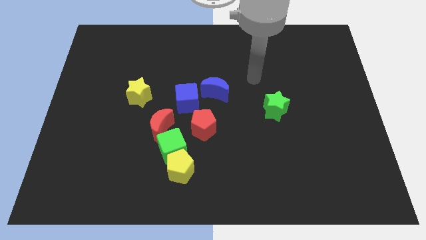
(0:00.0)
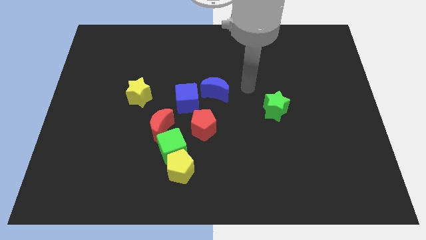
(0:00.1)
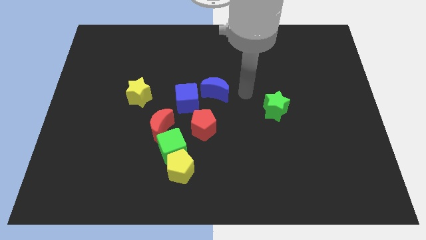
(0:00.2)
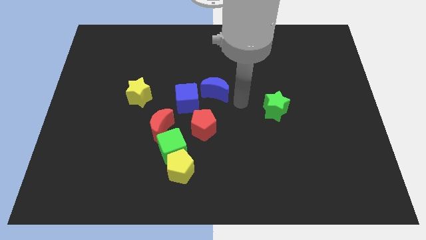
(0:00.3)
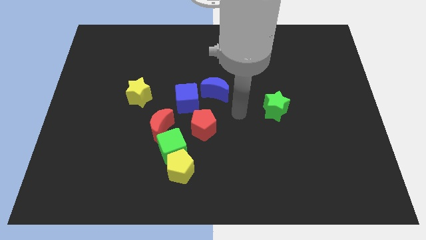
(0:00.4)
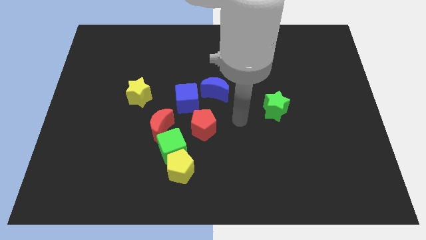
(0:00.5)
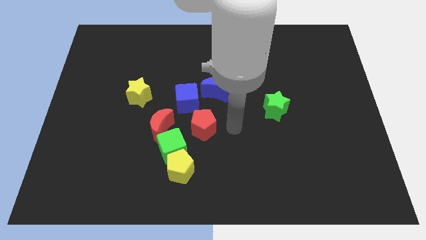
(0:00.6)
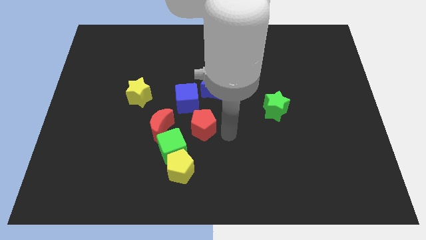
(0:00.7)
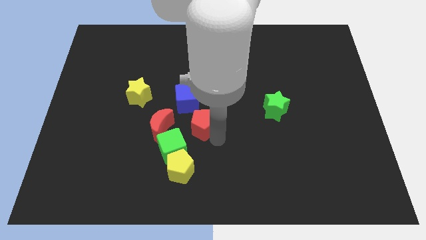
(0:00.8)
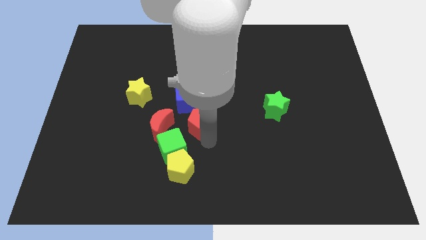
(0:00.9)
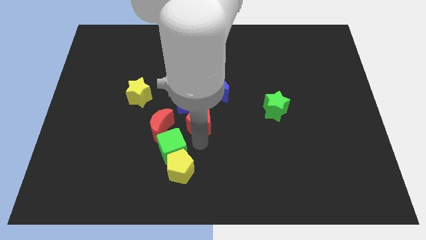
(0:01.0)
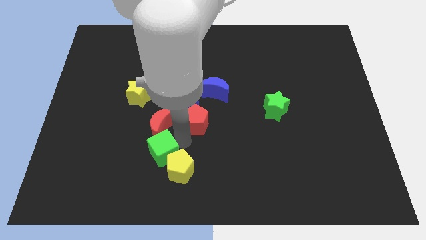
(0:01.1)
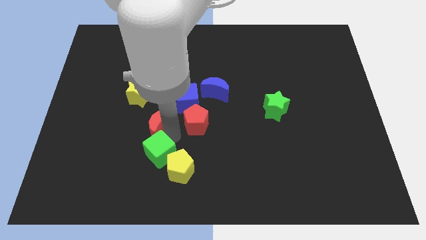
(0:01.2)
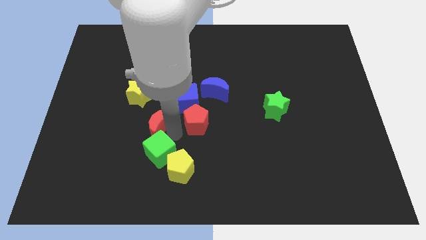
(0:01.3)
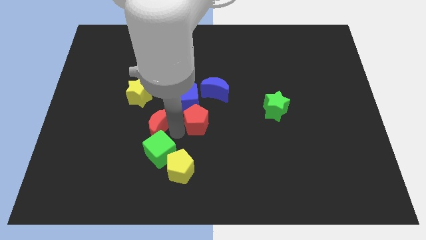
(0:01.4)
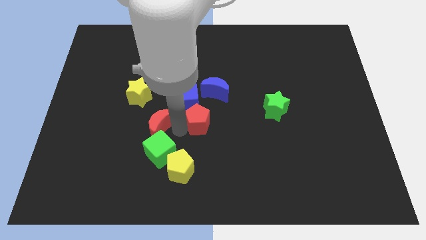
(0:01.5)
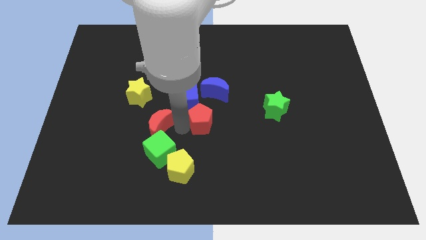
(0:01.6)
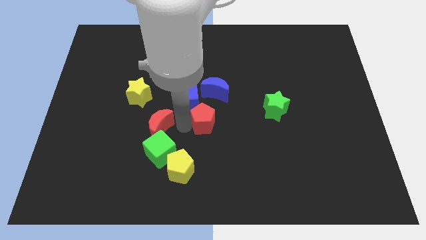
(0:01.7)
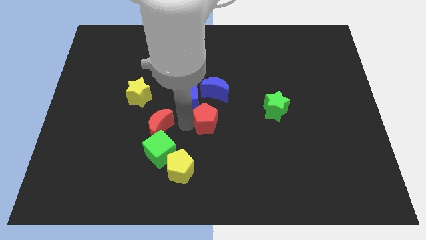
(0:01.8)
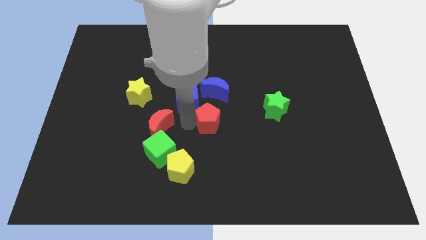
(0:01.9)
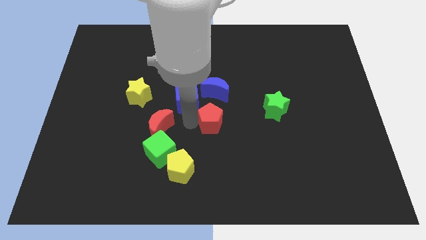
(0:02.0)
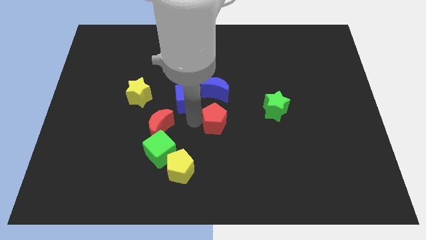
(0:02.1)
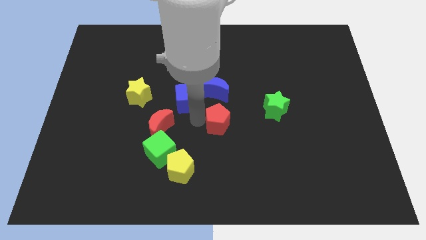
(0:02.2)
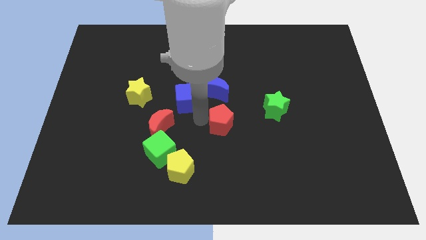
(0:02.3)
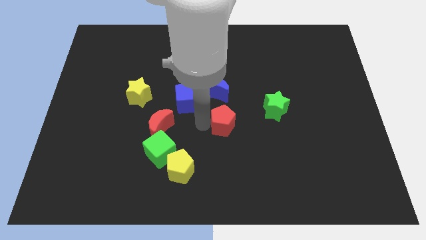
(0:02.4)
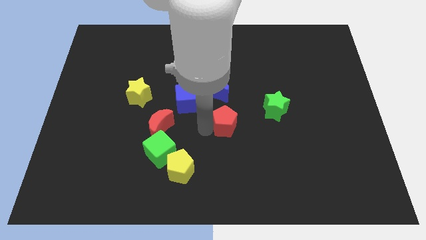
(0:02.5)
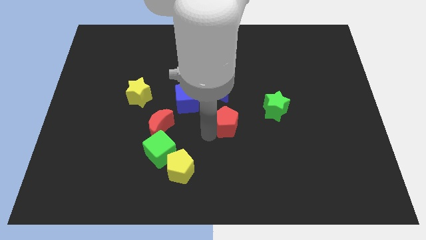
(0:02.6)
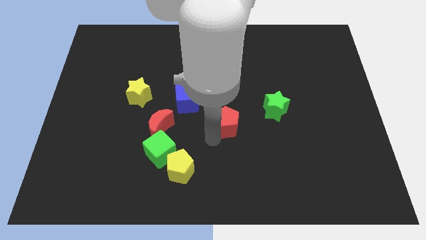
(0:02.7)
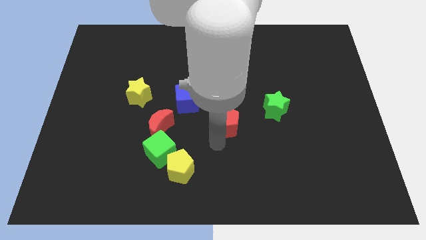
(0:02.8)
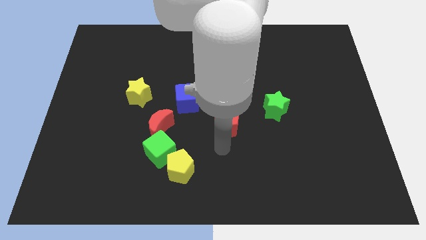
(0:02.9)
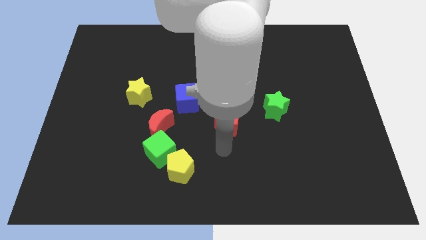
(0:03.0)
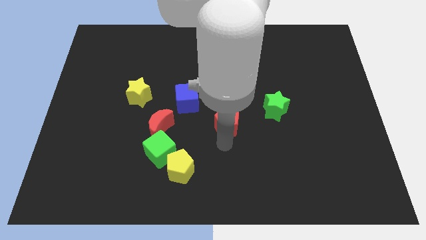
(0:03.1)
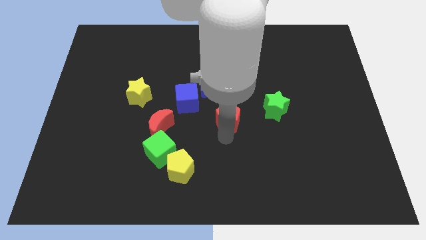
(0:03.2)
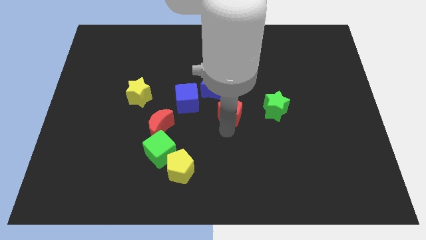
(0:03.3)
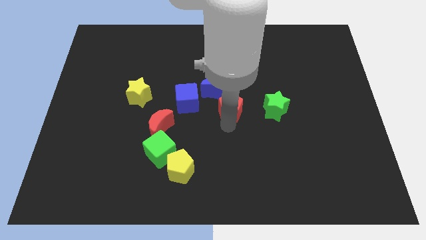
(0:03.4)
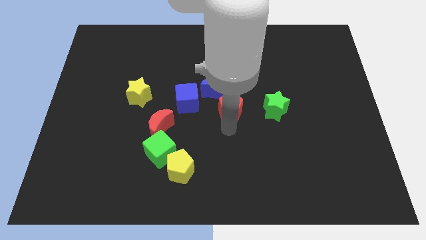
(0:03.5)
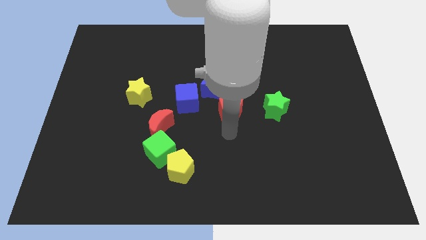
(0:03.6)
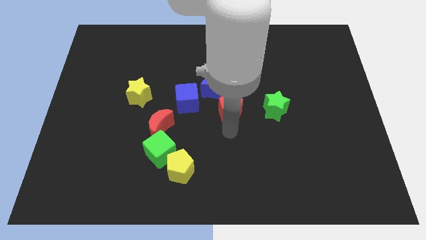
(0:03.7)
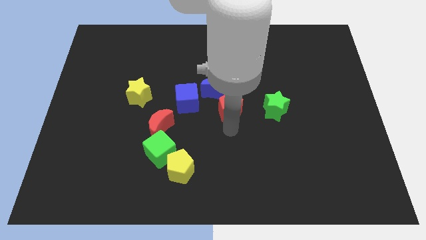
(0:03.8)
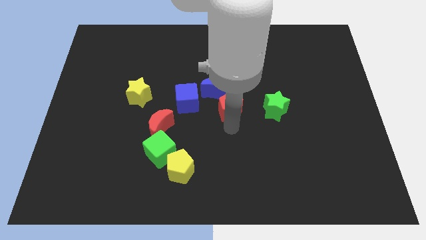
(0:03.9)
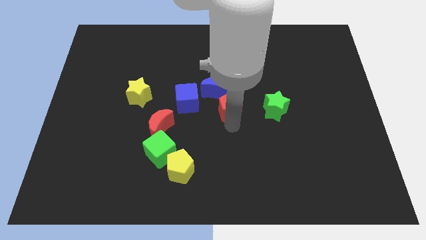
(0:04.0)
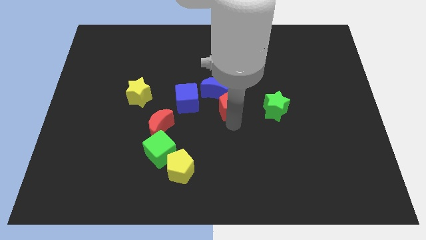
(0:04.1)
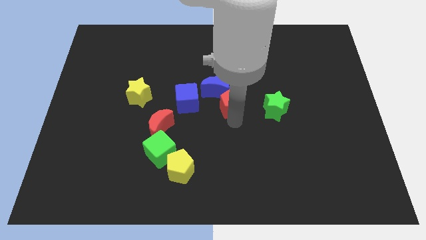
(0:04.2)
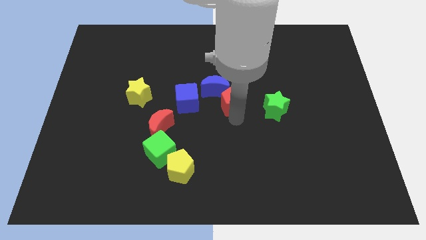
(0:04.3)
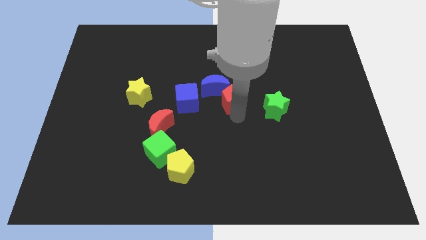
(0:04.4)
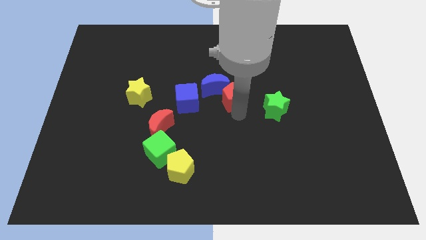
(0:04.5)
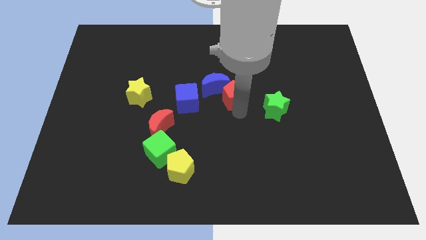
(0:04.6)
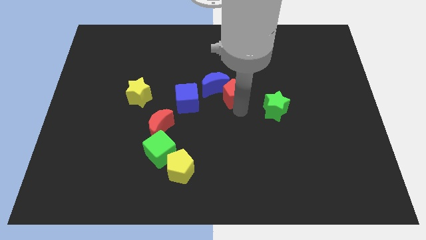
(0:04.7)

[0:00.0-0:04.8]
push the red pentagon somewhat up

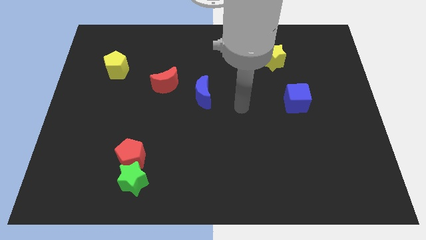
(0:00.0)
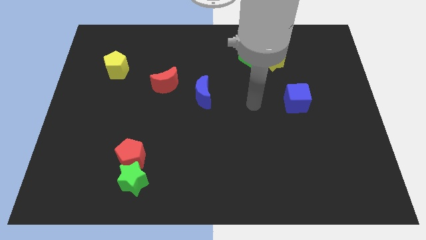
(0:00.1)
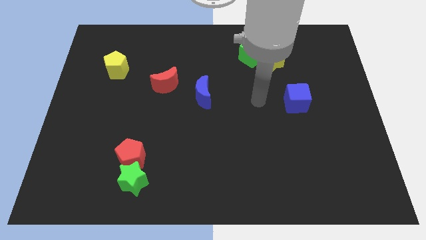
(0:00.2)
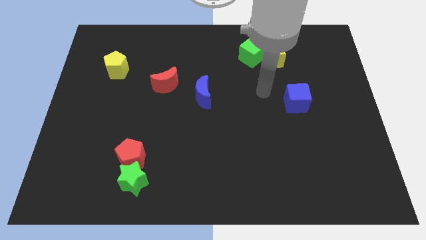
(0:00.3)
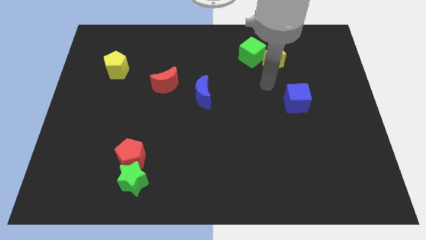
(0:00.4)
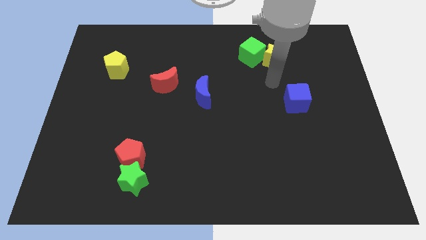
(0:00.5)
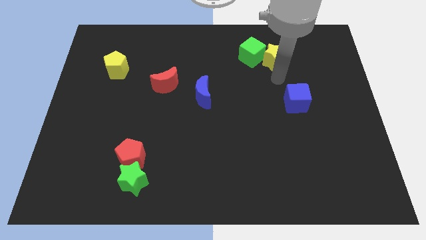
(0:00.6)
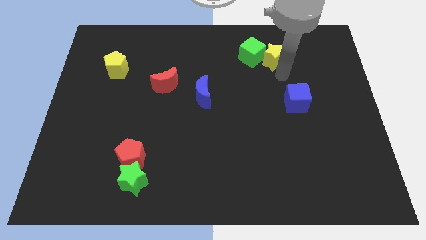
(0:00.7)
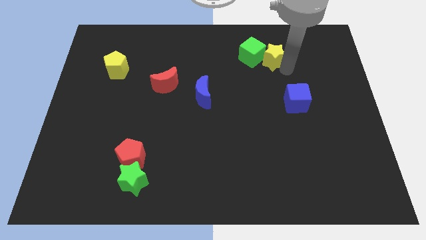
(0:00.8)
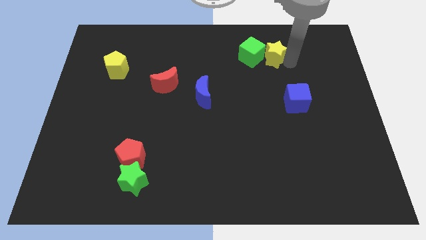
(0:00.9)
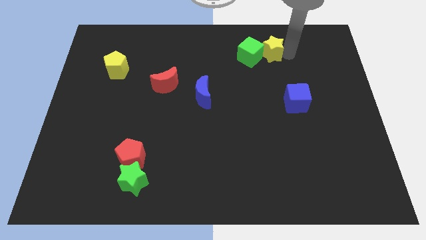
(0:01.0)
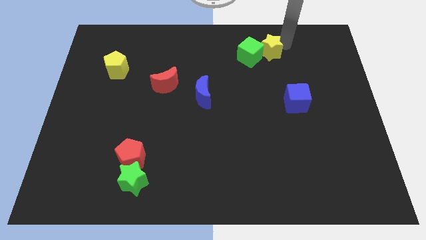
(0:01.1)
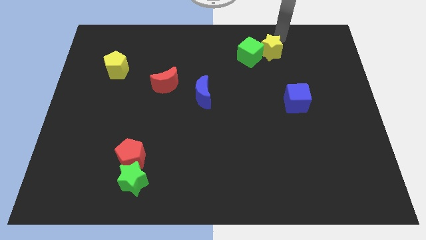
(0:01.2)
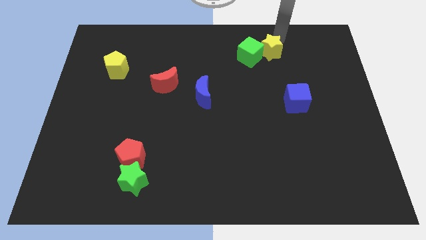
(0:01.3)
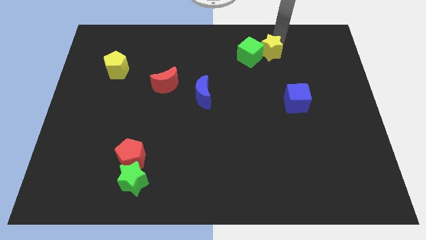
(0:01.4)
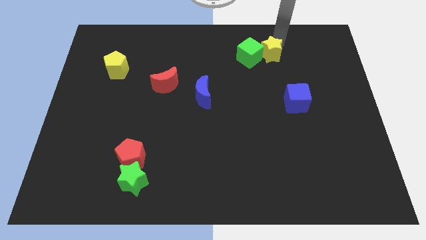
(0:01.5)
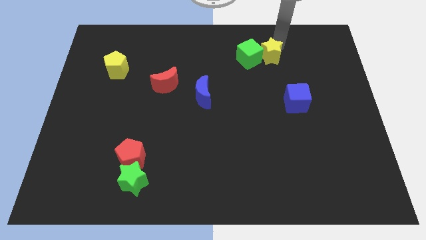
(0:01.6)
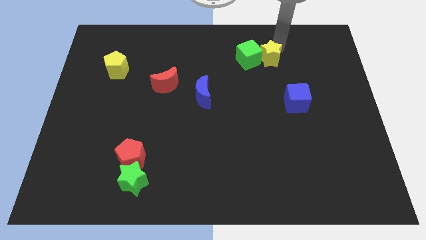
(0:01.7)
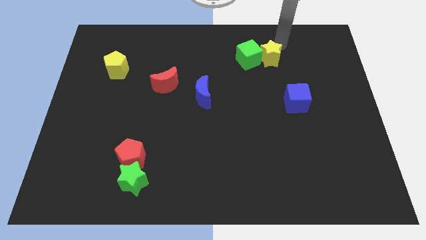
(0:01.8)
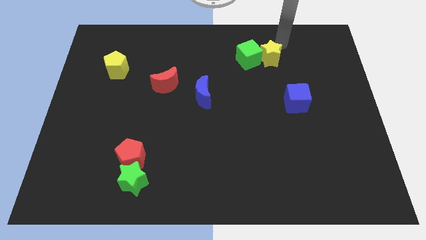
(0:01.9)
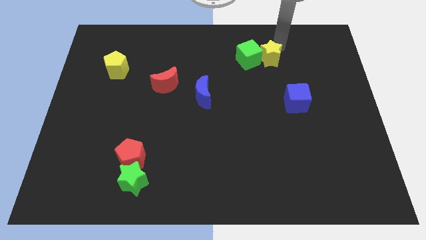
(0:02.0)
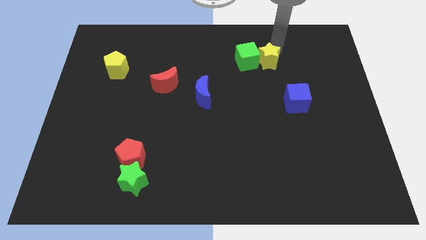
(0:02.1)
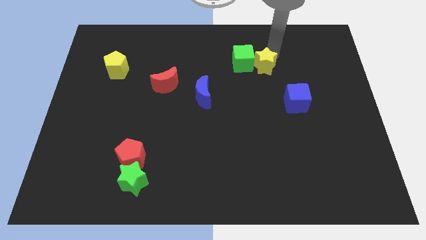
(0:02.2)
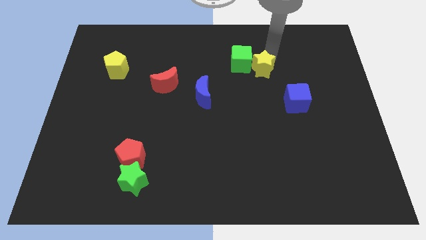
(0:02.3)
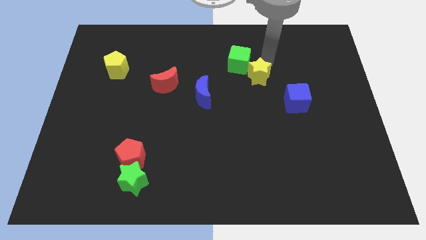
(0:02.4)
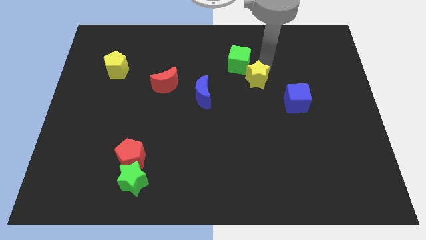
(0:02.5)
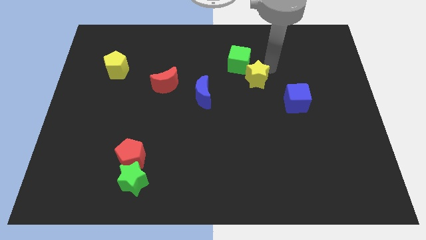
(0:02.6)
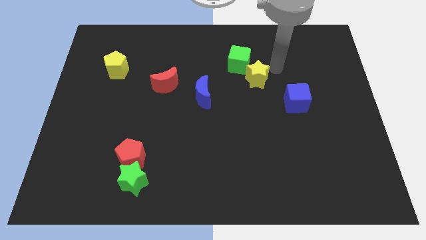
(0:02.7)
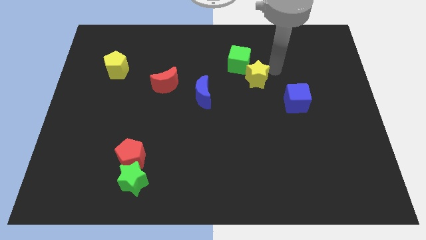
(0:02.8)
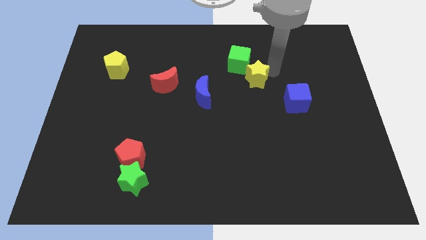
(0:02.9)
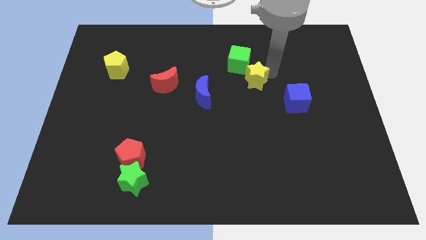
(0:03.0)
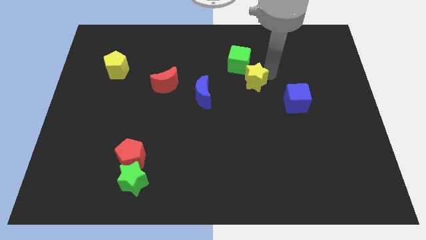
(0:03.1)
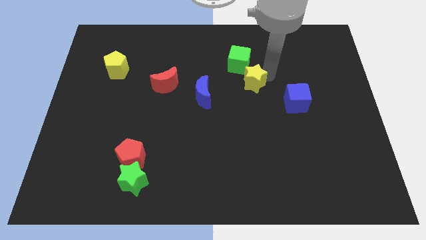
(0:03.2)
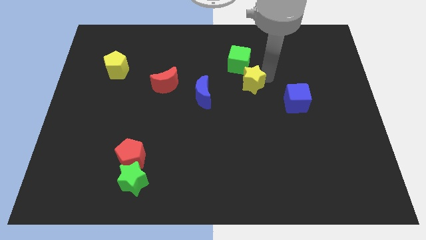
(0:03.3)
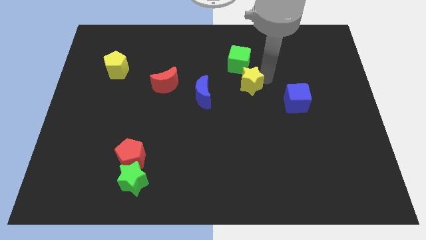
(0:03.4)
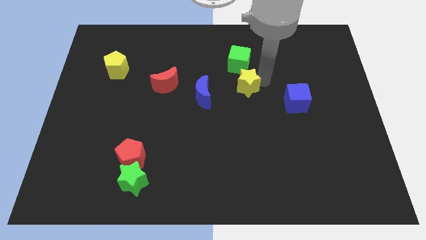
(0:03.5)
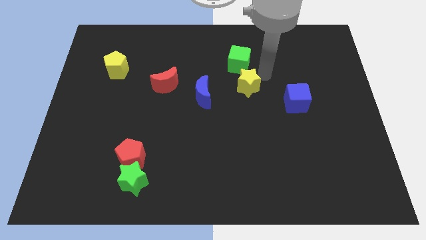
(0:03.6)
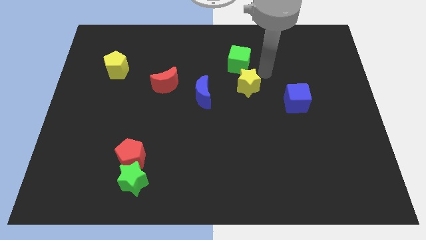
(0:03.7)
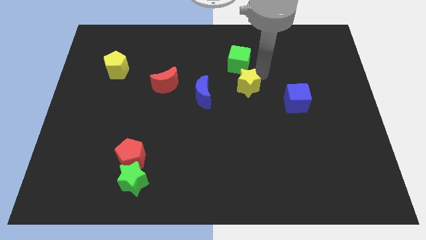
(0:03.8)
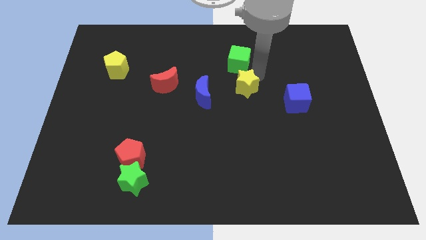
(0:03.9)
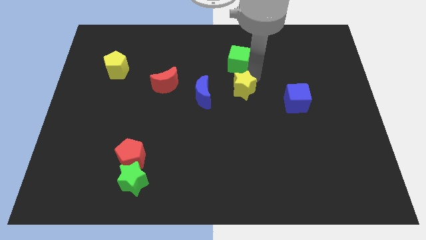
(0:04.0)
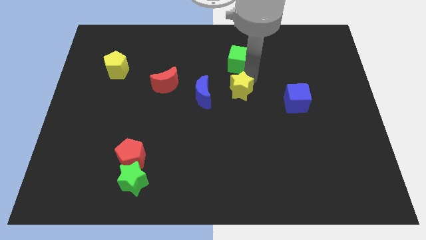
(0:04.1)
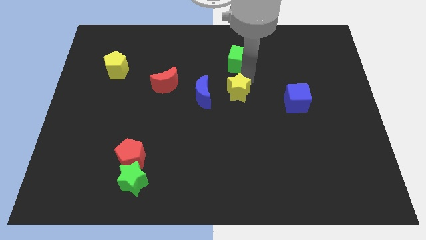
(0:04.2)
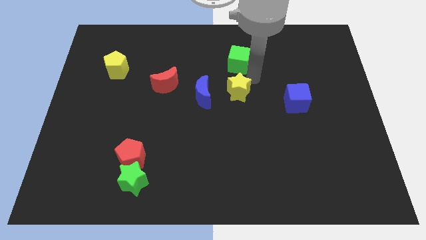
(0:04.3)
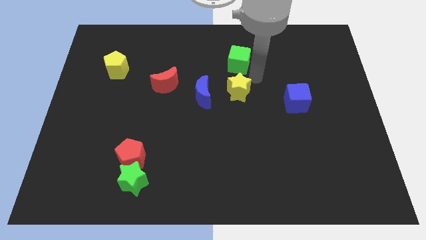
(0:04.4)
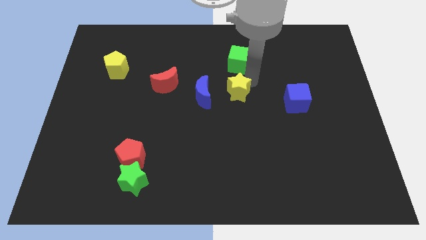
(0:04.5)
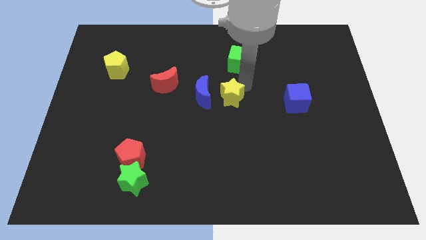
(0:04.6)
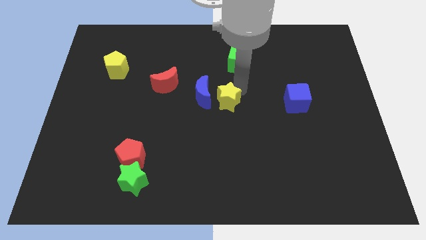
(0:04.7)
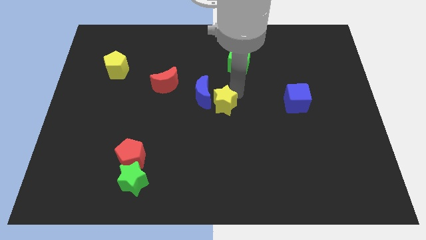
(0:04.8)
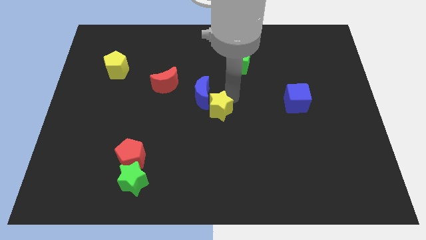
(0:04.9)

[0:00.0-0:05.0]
move the yellow star diagonally down and to the left
